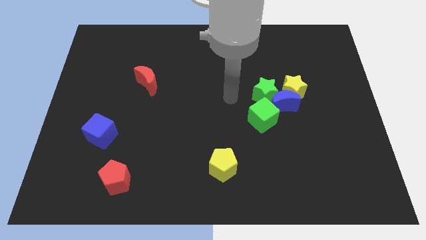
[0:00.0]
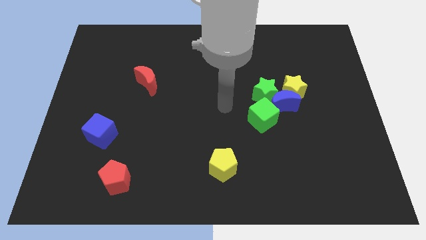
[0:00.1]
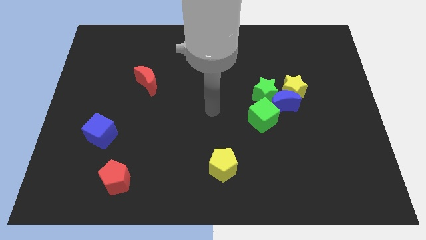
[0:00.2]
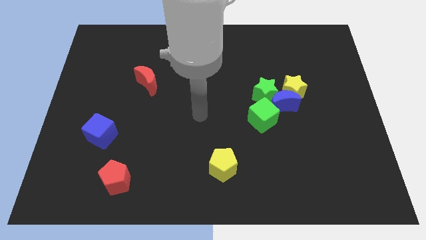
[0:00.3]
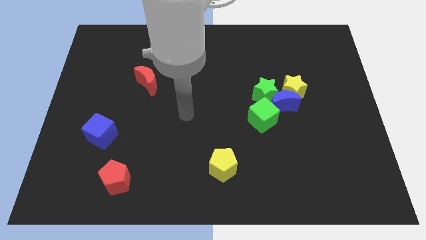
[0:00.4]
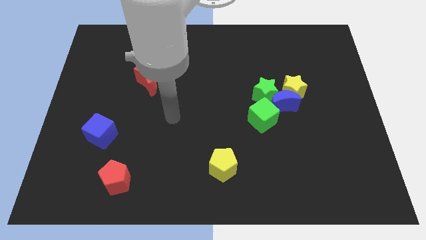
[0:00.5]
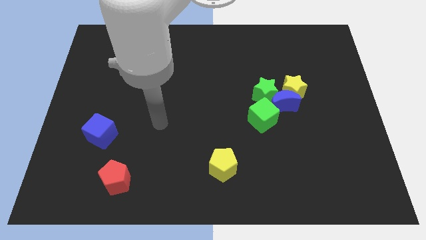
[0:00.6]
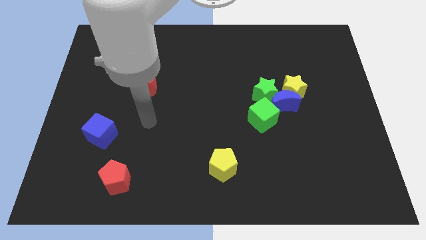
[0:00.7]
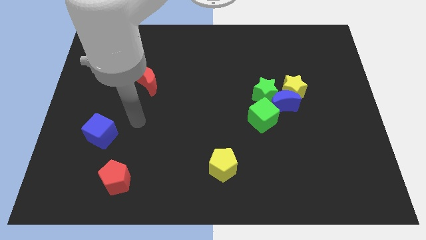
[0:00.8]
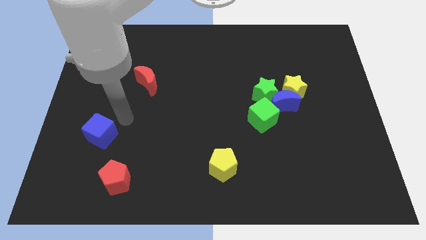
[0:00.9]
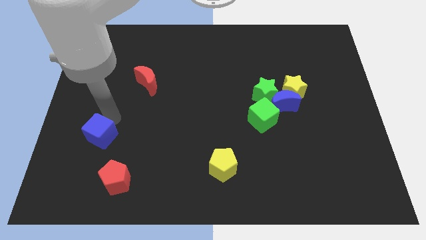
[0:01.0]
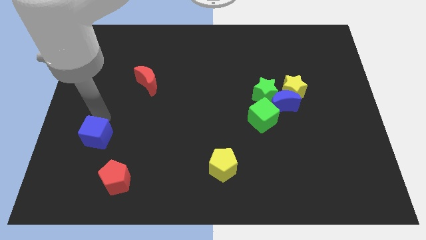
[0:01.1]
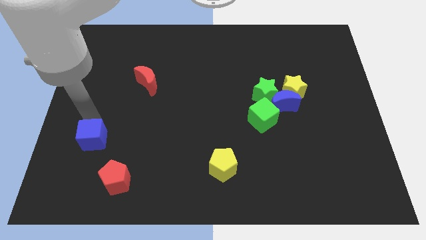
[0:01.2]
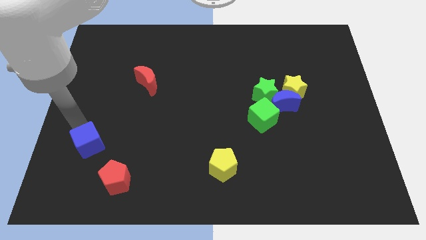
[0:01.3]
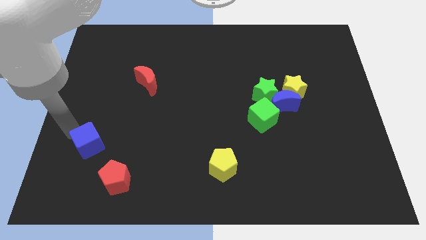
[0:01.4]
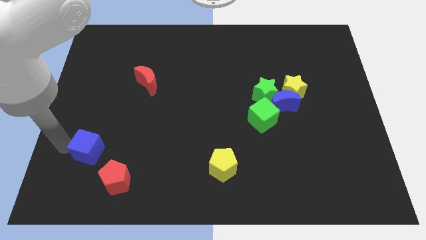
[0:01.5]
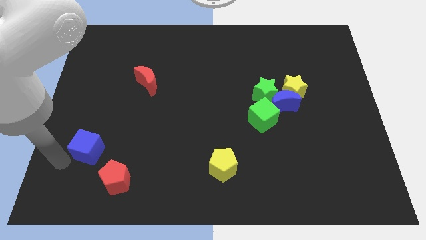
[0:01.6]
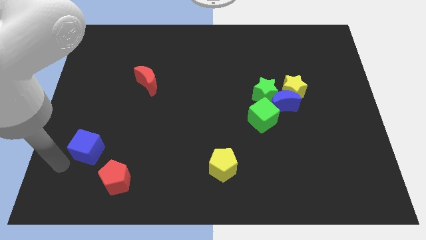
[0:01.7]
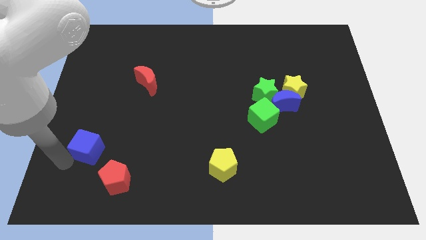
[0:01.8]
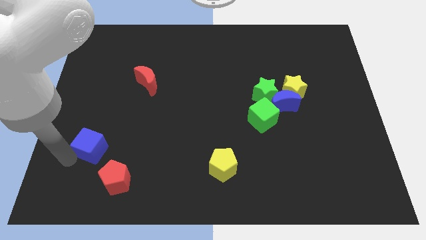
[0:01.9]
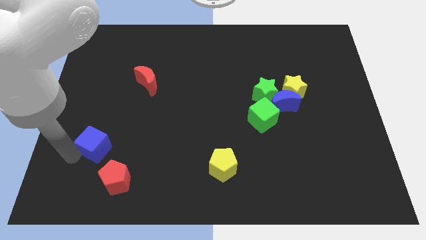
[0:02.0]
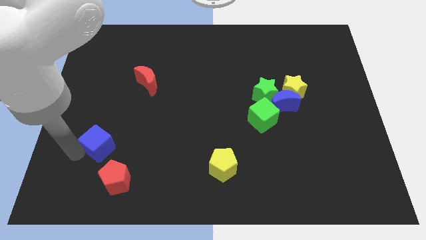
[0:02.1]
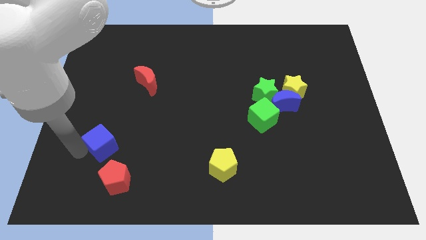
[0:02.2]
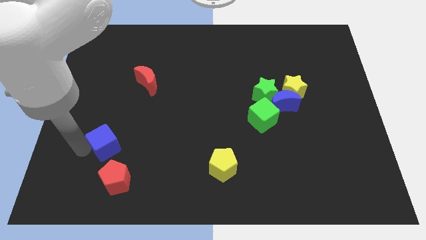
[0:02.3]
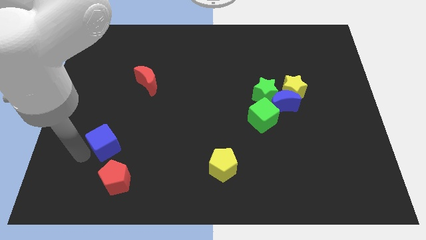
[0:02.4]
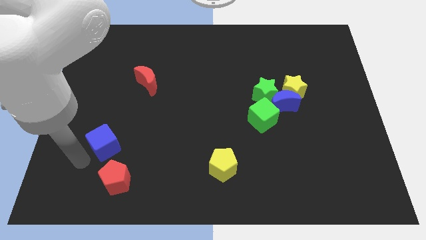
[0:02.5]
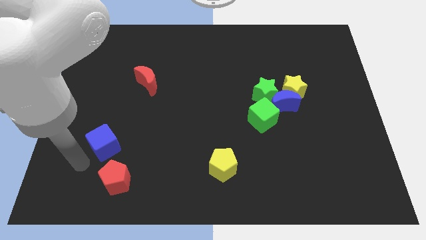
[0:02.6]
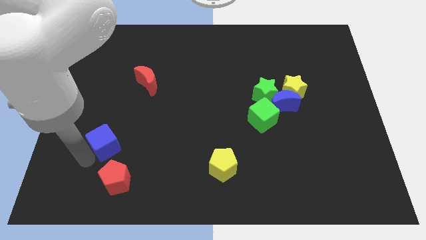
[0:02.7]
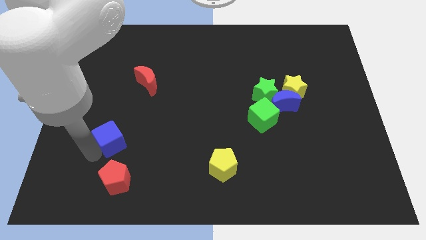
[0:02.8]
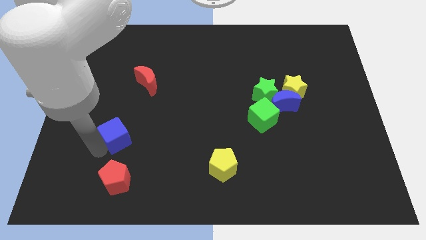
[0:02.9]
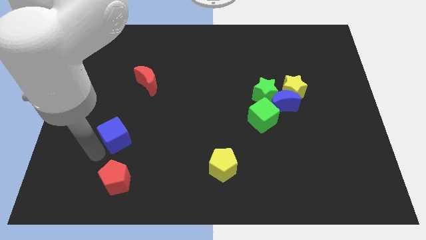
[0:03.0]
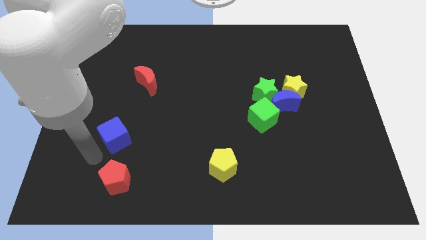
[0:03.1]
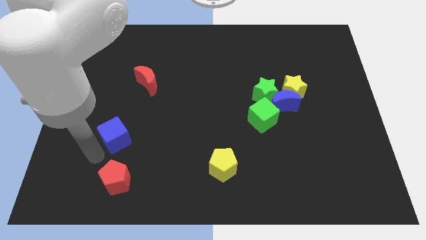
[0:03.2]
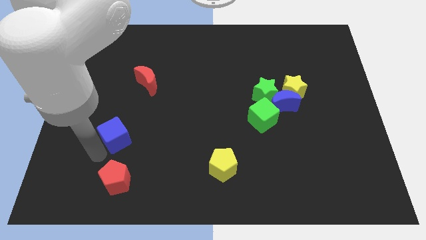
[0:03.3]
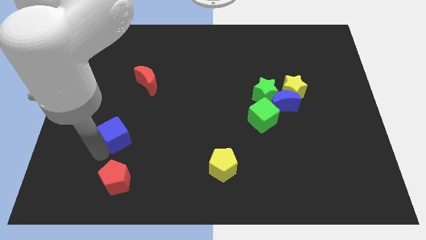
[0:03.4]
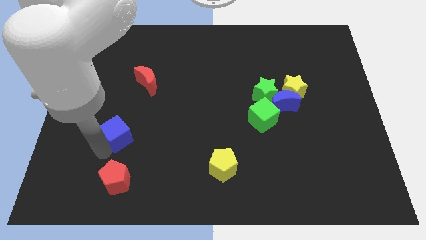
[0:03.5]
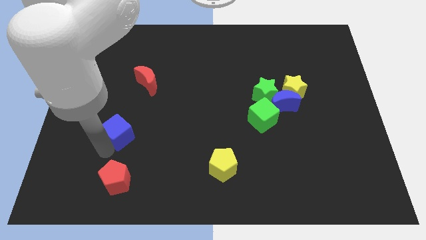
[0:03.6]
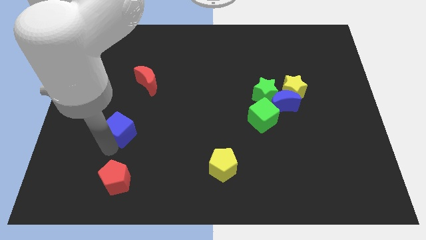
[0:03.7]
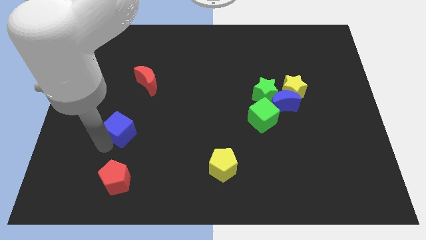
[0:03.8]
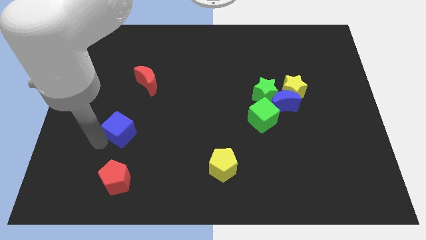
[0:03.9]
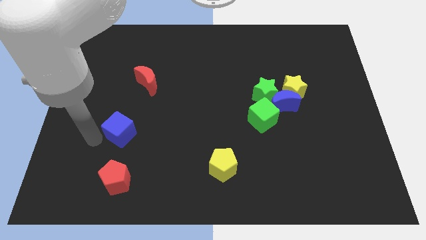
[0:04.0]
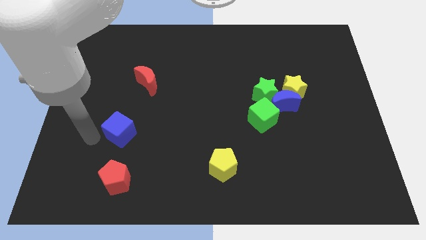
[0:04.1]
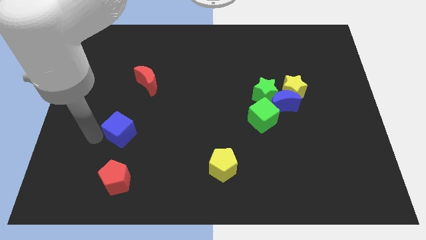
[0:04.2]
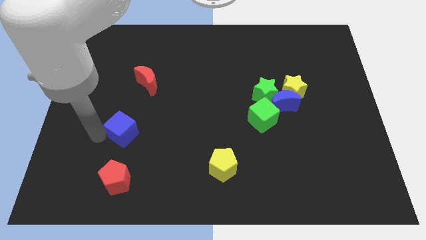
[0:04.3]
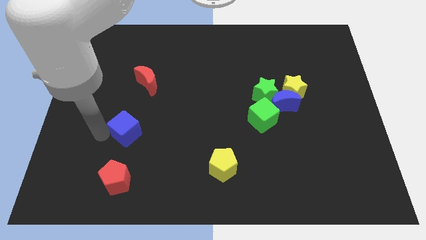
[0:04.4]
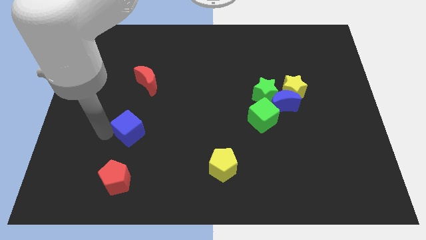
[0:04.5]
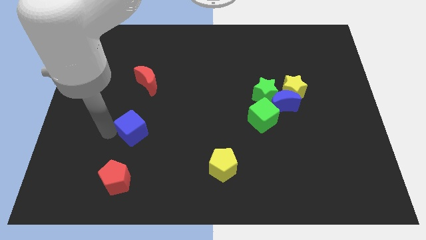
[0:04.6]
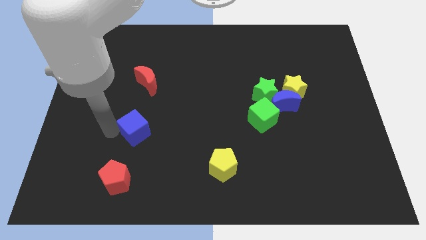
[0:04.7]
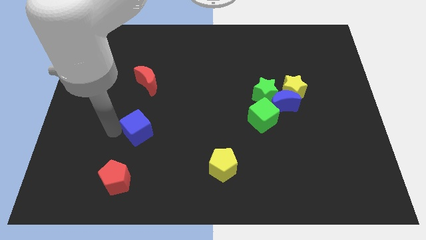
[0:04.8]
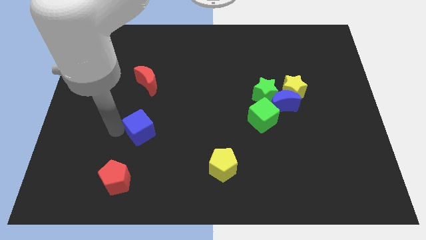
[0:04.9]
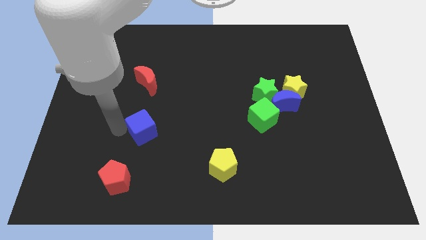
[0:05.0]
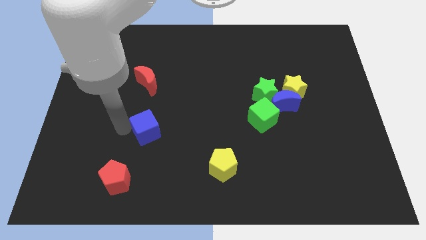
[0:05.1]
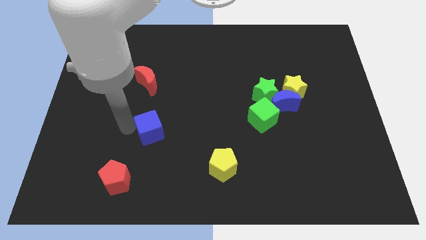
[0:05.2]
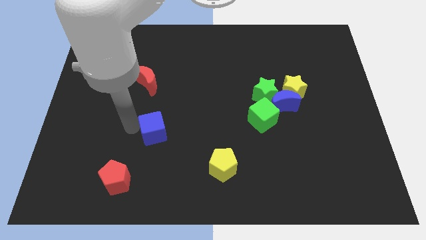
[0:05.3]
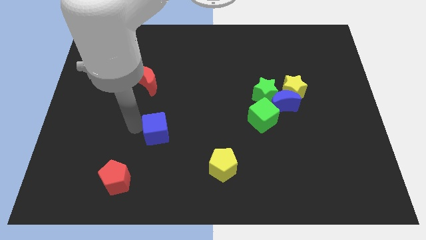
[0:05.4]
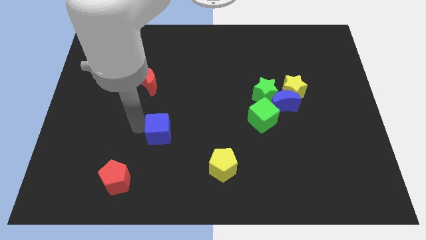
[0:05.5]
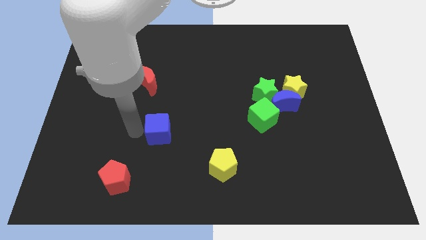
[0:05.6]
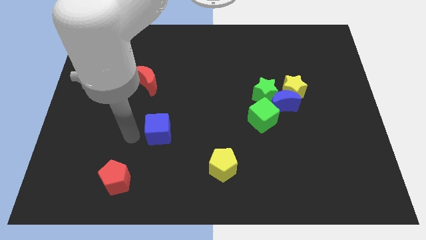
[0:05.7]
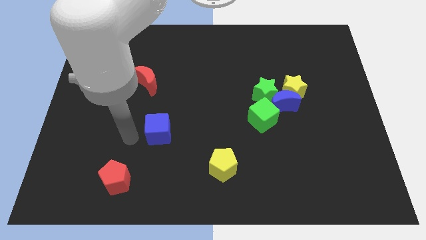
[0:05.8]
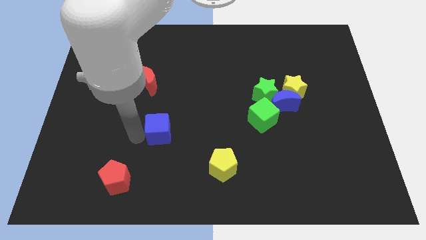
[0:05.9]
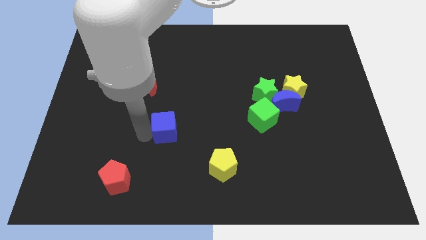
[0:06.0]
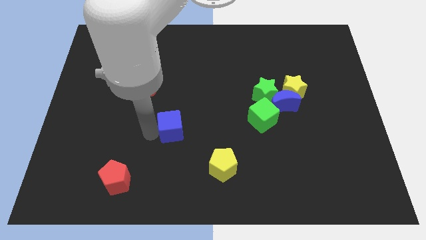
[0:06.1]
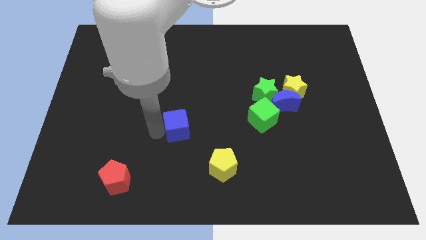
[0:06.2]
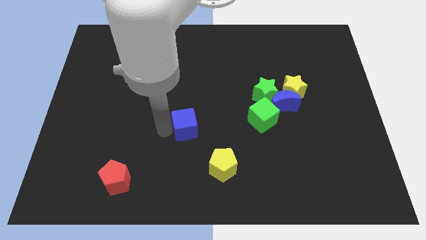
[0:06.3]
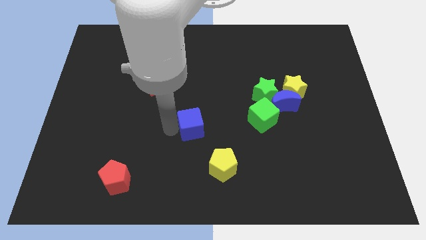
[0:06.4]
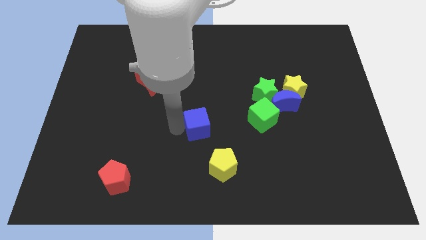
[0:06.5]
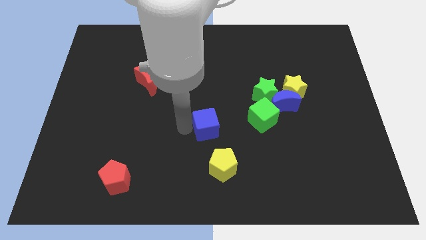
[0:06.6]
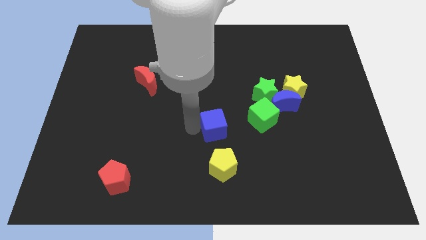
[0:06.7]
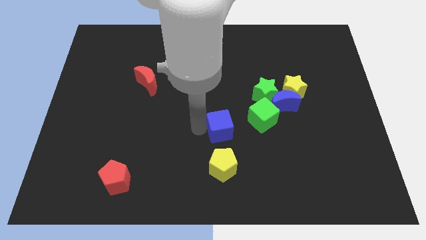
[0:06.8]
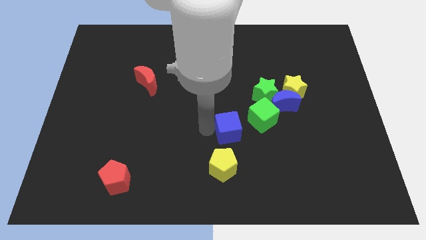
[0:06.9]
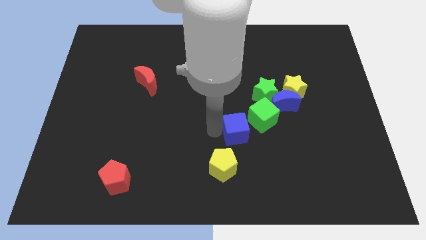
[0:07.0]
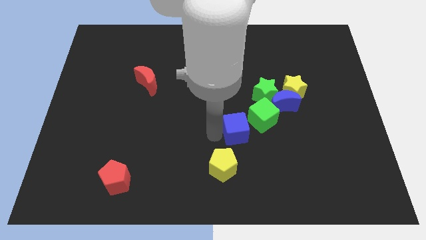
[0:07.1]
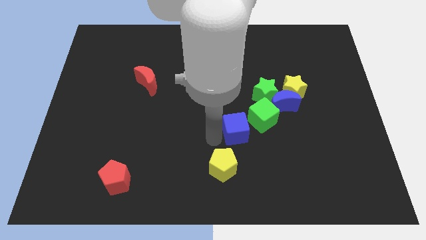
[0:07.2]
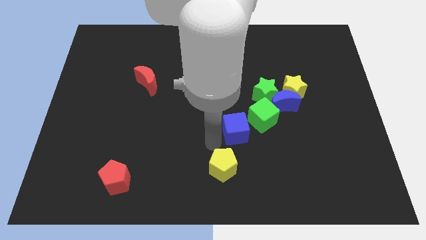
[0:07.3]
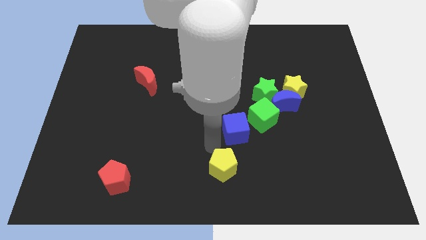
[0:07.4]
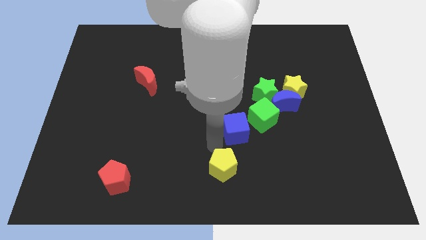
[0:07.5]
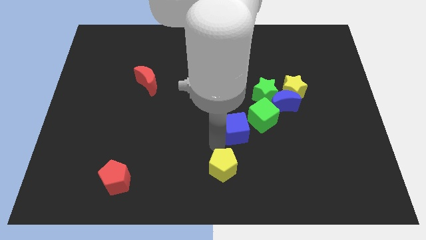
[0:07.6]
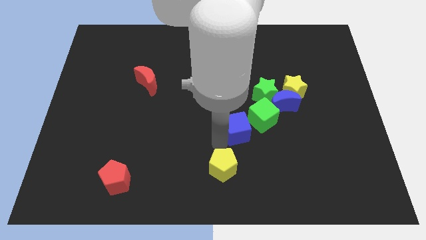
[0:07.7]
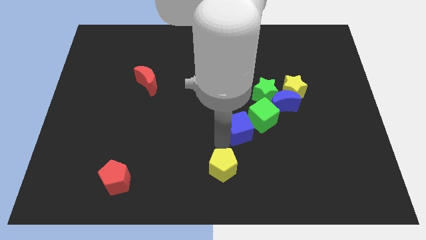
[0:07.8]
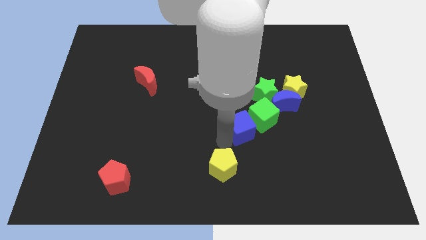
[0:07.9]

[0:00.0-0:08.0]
slide the blue cube to the green cube
